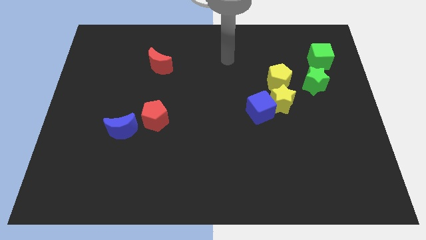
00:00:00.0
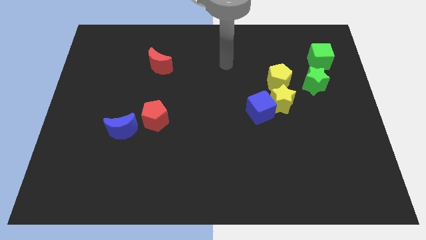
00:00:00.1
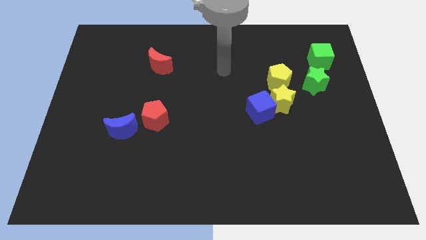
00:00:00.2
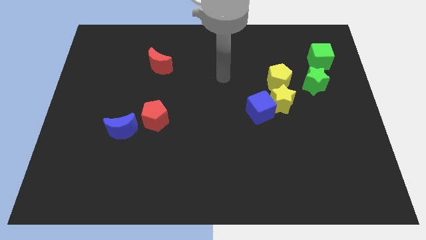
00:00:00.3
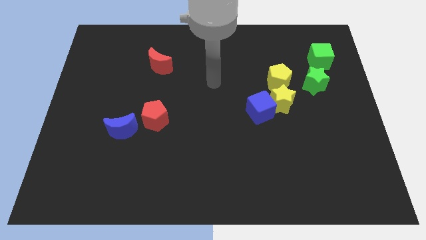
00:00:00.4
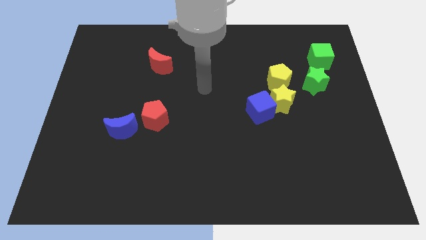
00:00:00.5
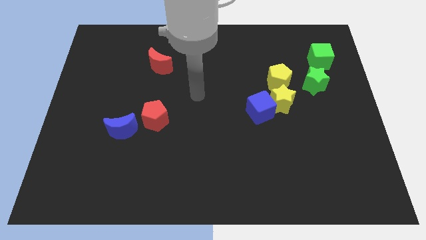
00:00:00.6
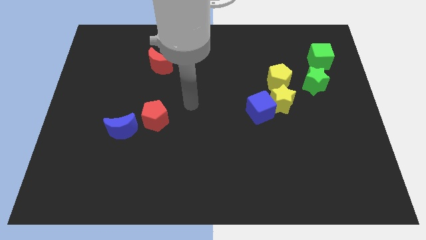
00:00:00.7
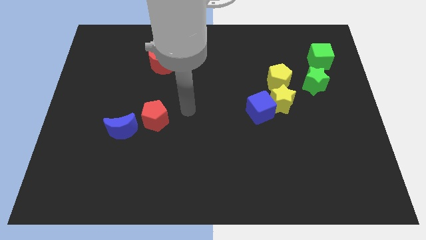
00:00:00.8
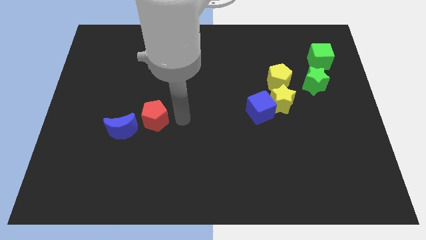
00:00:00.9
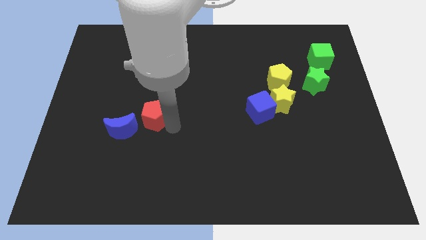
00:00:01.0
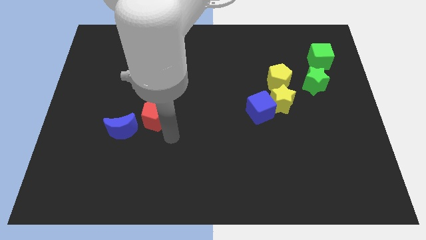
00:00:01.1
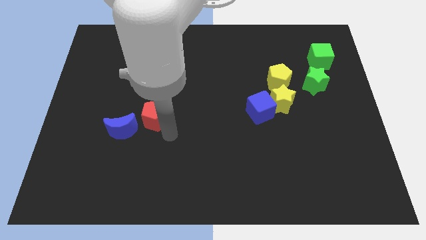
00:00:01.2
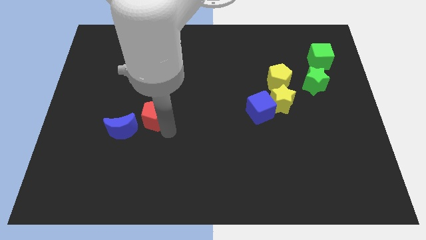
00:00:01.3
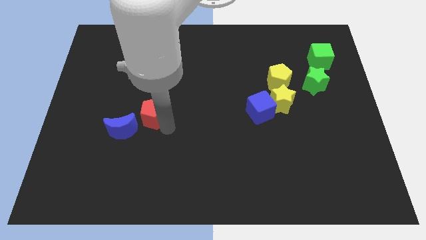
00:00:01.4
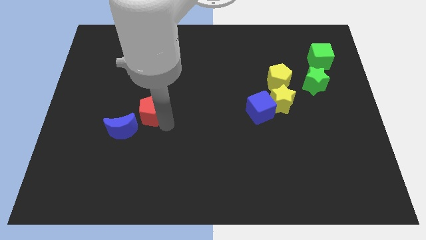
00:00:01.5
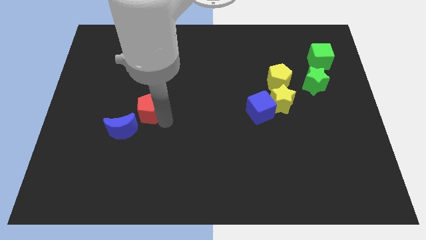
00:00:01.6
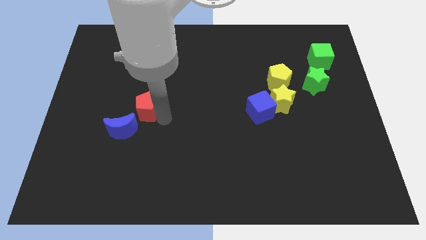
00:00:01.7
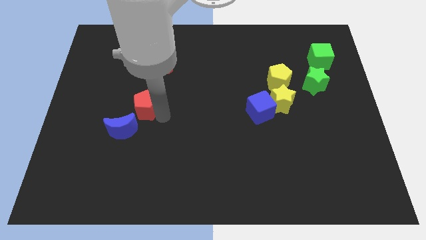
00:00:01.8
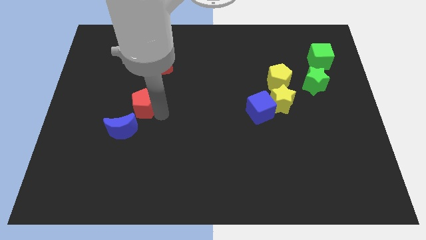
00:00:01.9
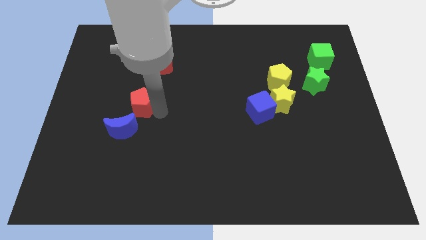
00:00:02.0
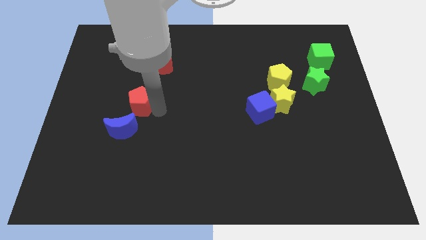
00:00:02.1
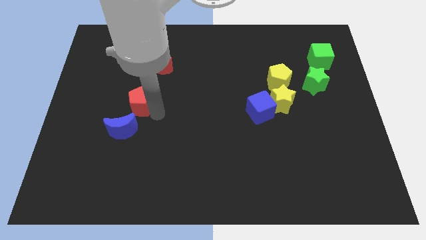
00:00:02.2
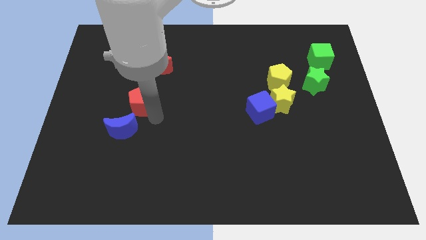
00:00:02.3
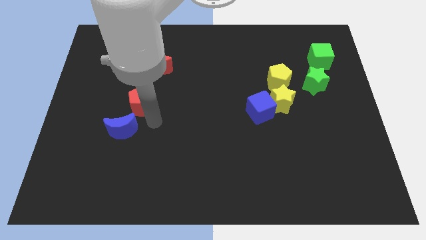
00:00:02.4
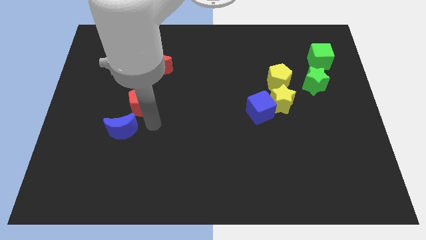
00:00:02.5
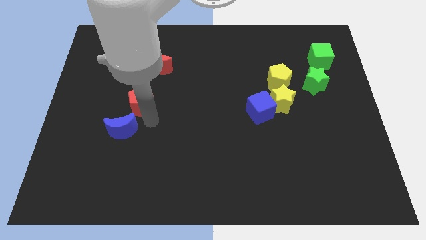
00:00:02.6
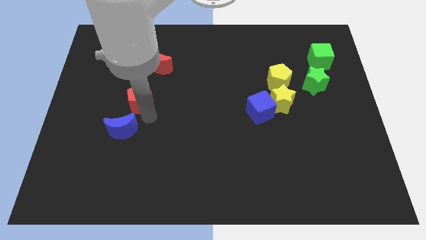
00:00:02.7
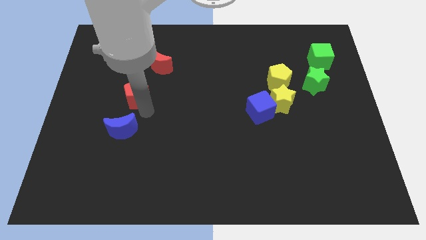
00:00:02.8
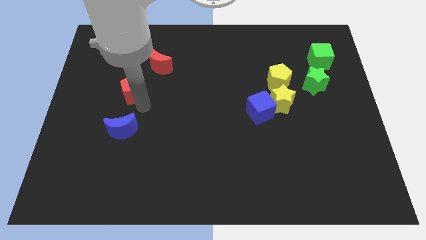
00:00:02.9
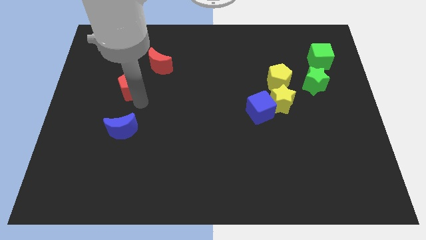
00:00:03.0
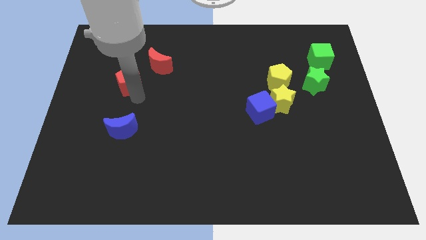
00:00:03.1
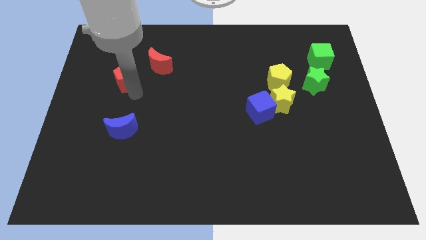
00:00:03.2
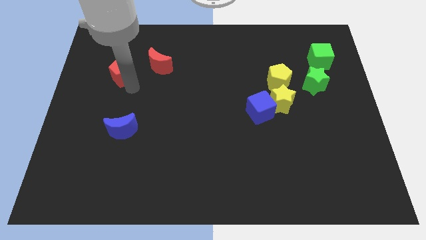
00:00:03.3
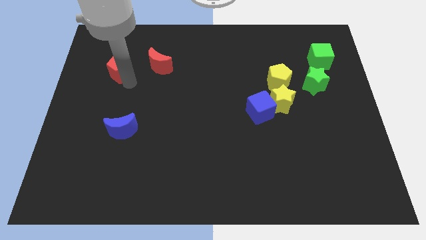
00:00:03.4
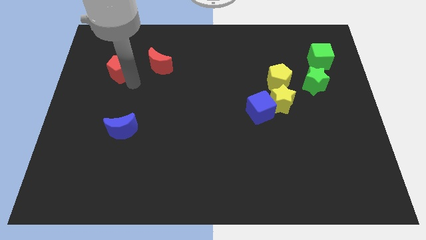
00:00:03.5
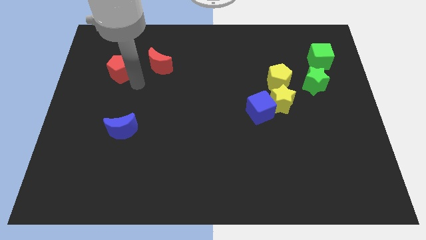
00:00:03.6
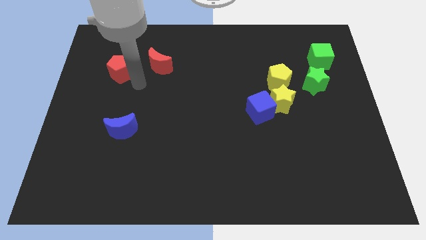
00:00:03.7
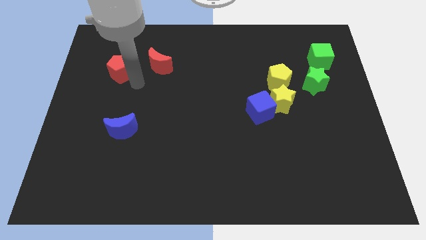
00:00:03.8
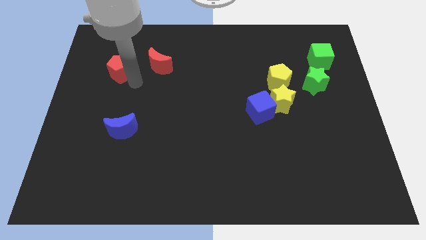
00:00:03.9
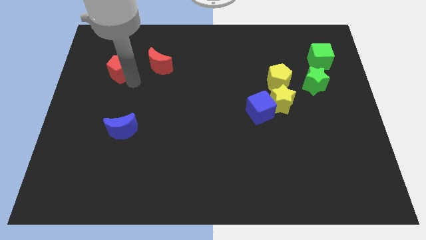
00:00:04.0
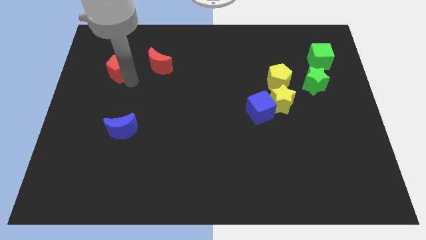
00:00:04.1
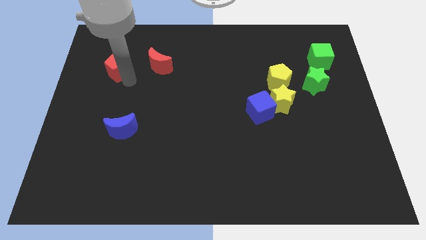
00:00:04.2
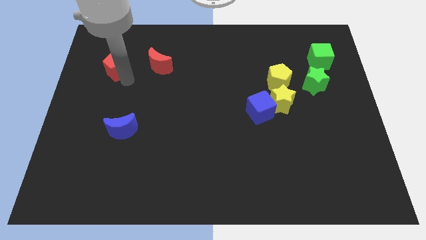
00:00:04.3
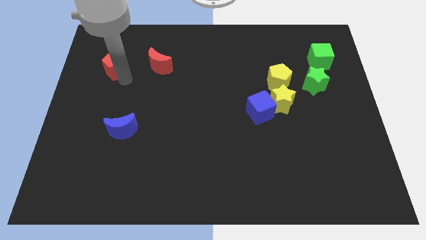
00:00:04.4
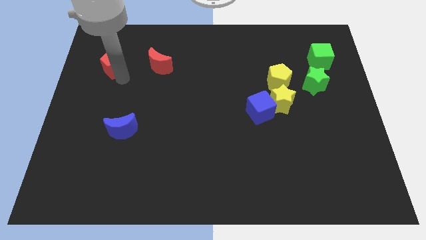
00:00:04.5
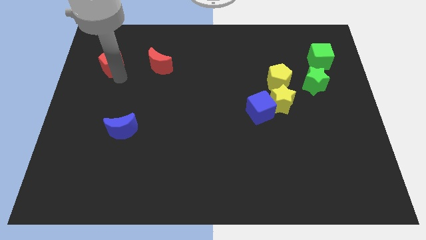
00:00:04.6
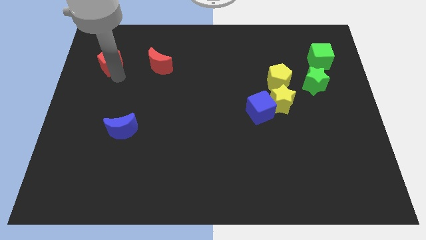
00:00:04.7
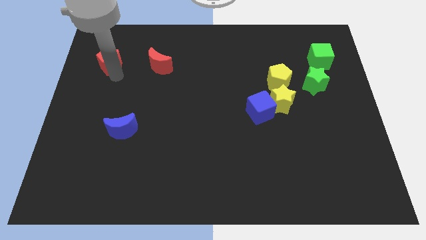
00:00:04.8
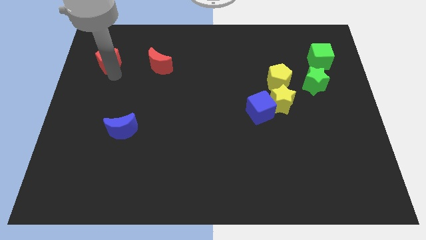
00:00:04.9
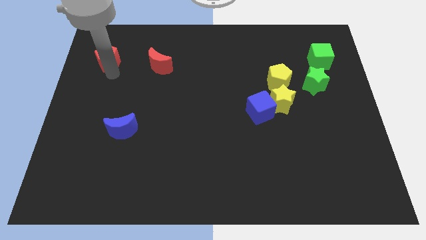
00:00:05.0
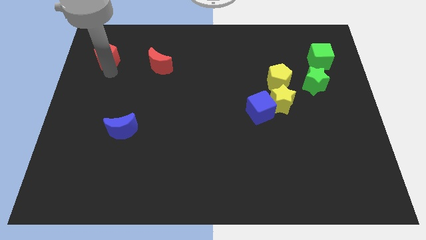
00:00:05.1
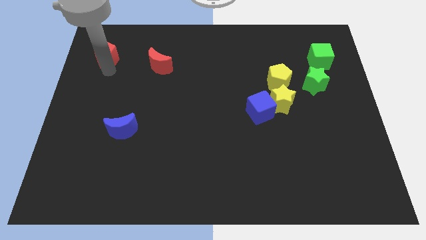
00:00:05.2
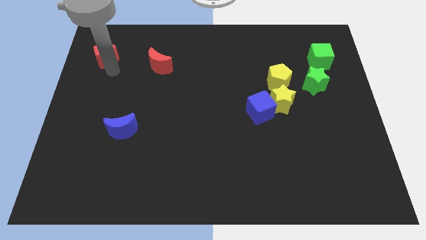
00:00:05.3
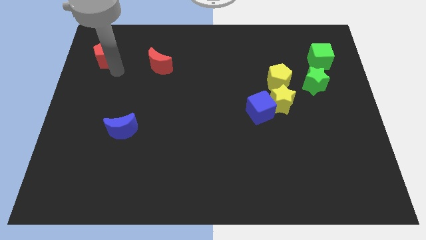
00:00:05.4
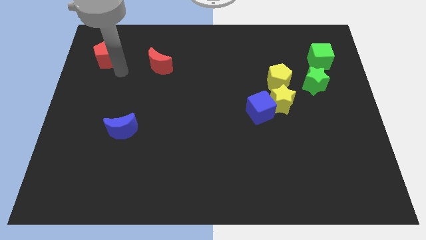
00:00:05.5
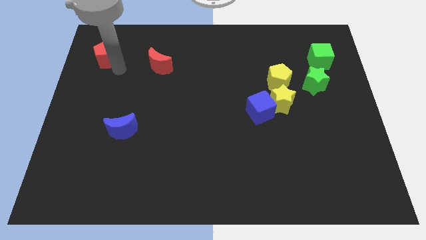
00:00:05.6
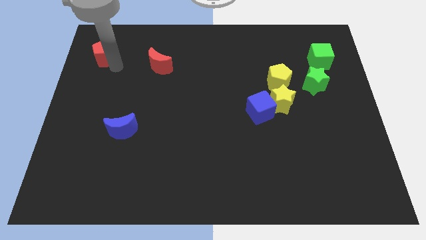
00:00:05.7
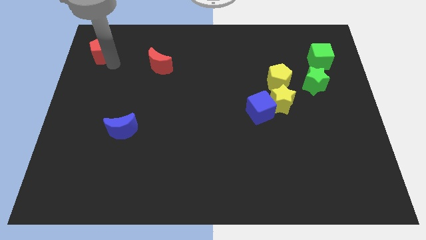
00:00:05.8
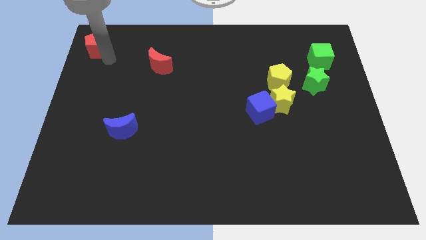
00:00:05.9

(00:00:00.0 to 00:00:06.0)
move the red pentagon to the upper left corner

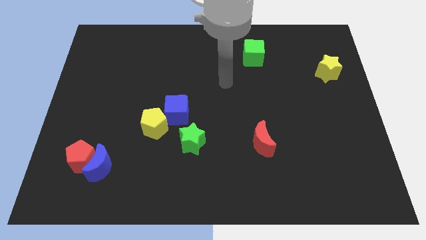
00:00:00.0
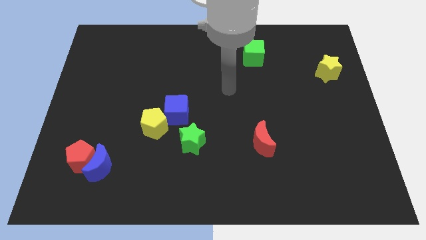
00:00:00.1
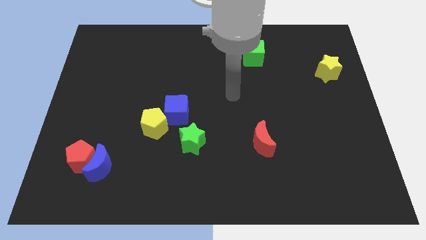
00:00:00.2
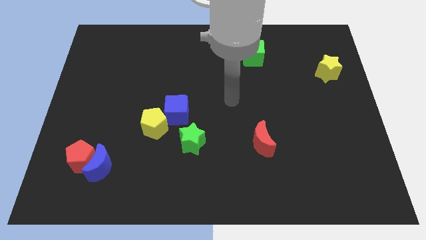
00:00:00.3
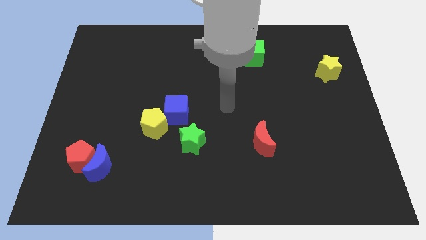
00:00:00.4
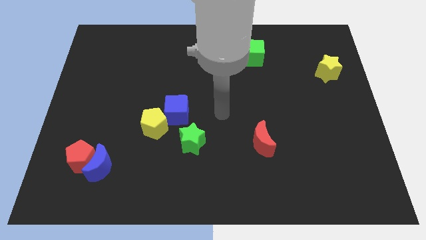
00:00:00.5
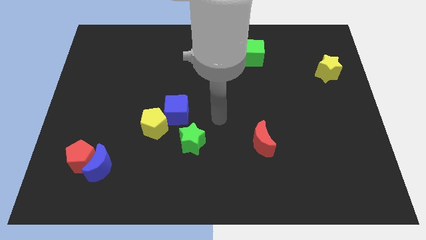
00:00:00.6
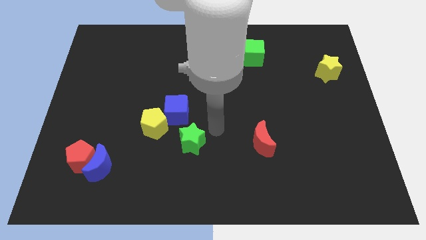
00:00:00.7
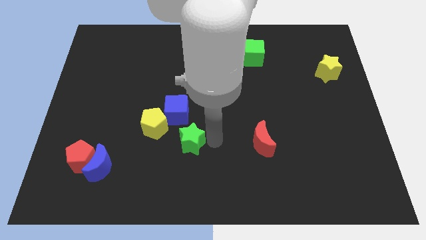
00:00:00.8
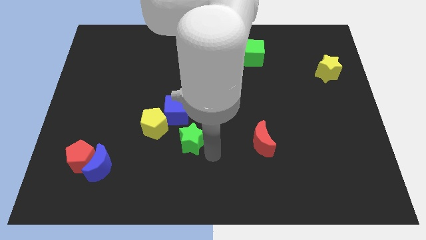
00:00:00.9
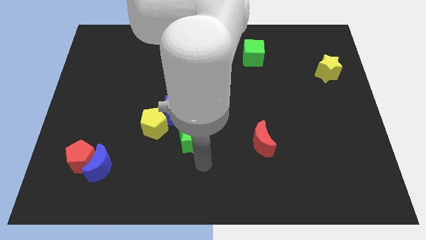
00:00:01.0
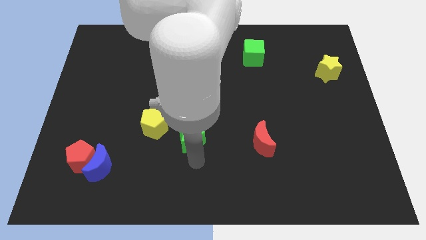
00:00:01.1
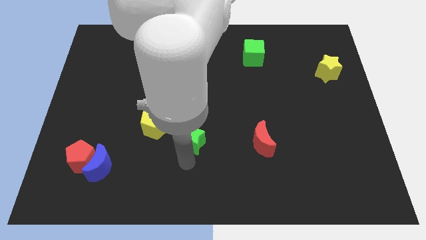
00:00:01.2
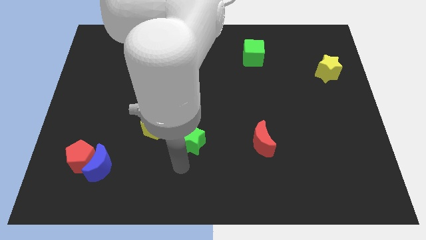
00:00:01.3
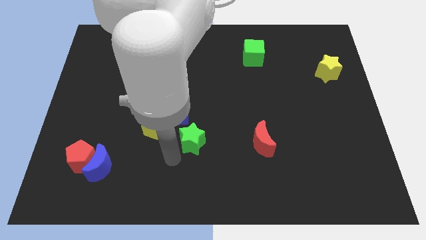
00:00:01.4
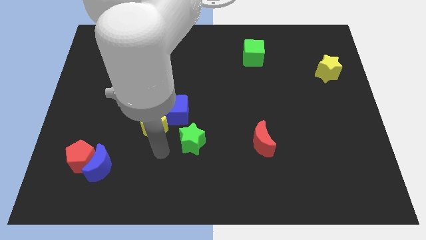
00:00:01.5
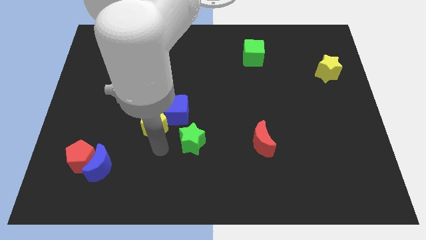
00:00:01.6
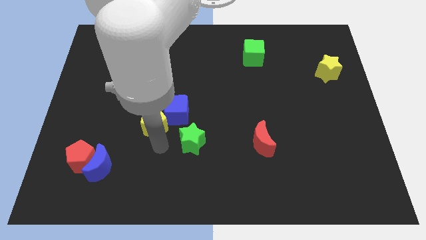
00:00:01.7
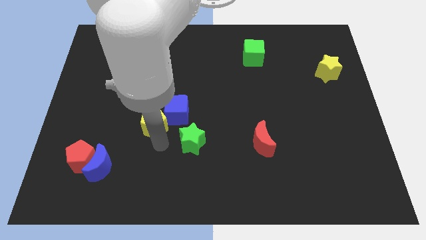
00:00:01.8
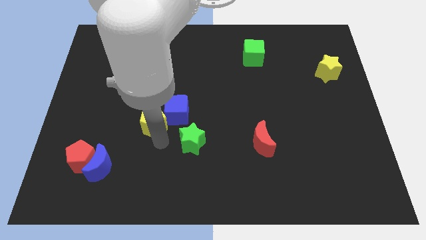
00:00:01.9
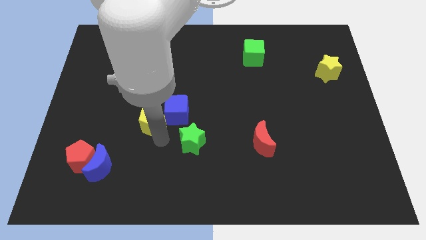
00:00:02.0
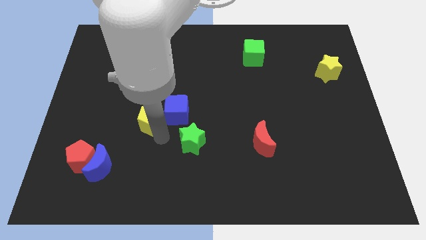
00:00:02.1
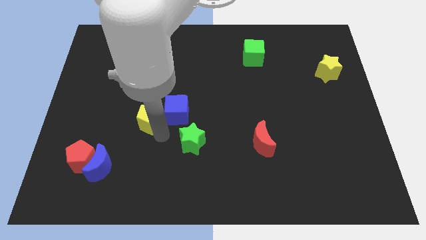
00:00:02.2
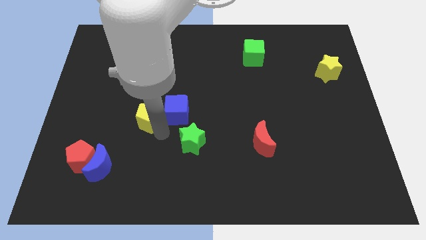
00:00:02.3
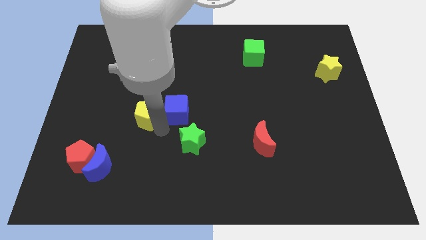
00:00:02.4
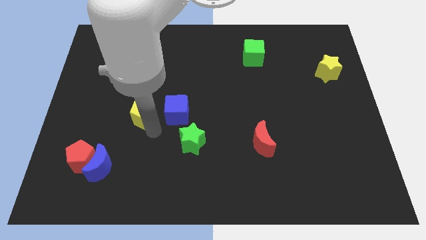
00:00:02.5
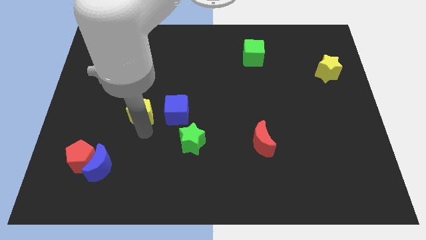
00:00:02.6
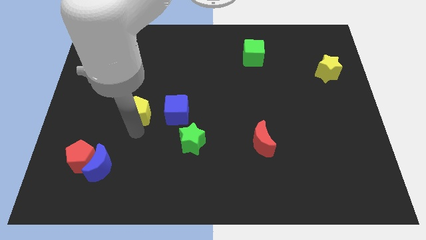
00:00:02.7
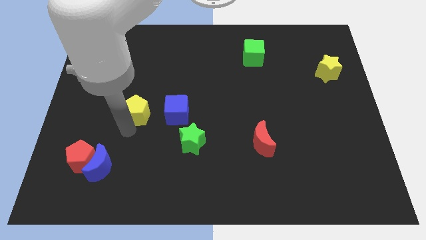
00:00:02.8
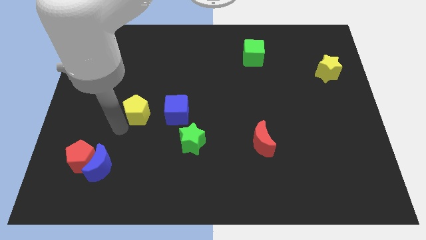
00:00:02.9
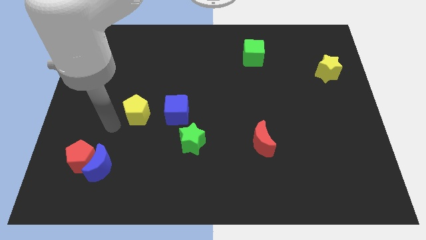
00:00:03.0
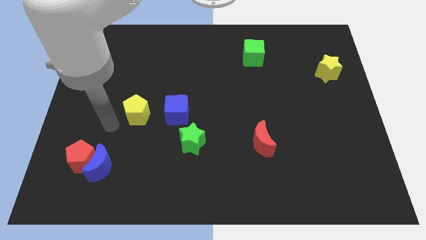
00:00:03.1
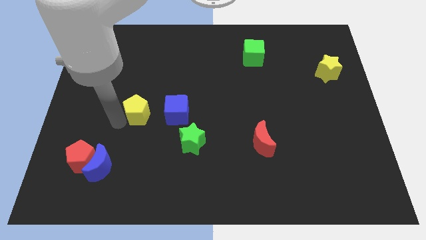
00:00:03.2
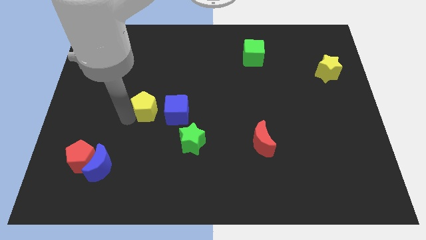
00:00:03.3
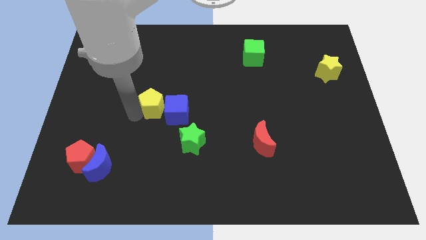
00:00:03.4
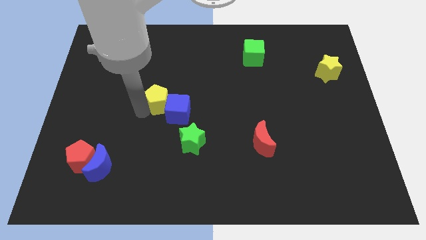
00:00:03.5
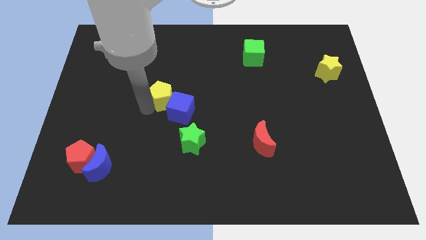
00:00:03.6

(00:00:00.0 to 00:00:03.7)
push the yellow pentagon to the middle of the board
